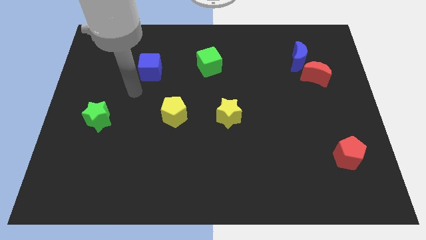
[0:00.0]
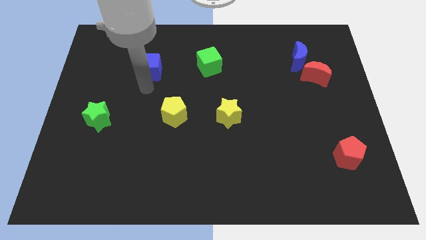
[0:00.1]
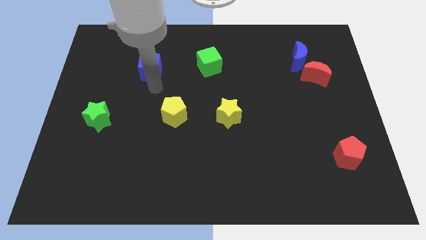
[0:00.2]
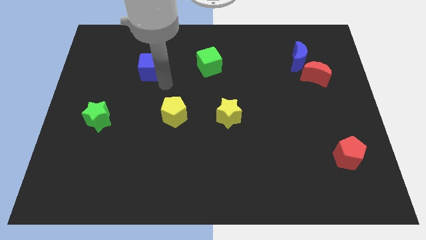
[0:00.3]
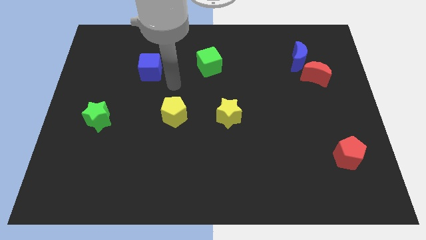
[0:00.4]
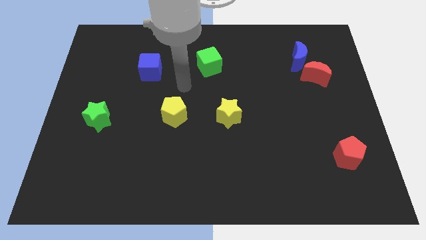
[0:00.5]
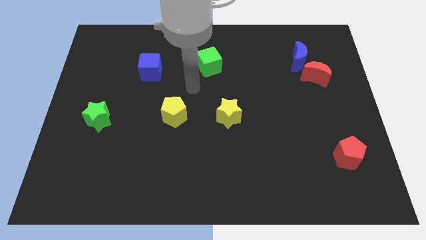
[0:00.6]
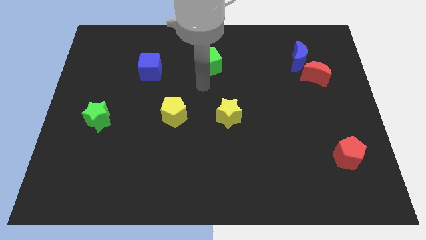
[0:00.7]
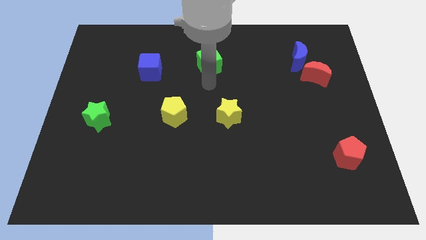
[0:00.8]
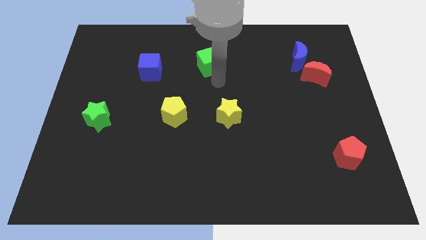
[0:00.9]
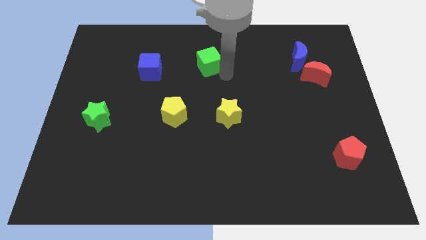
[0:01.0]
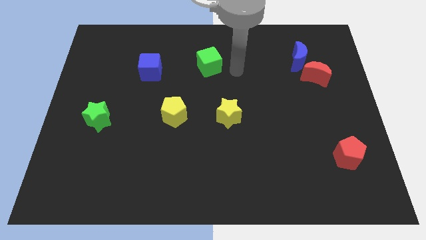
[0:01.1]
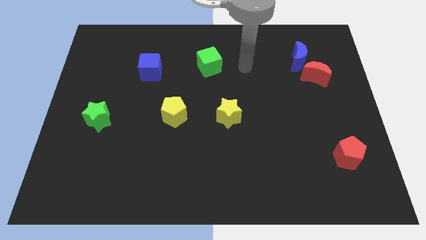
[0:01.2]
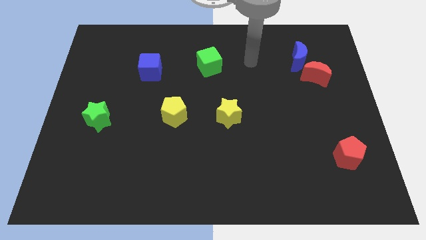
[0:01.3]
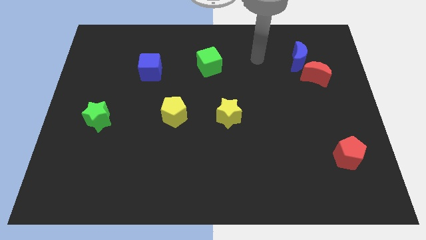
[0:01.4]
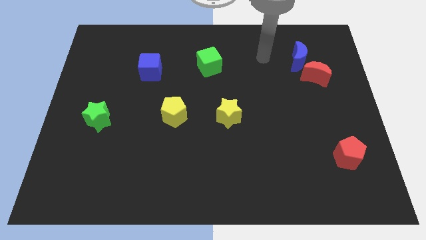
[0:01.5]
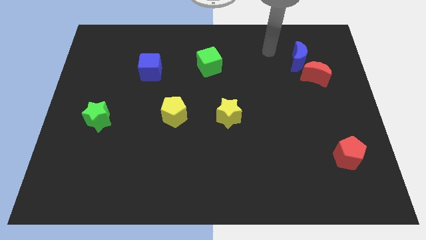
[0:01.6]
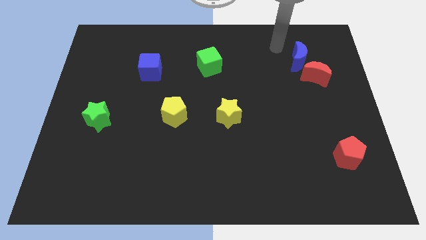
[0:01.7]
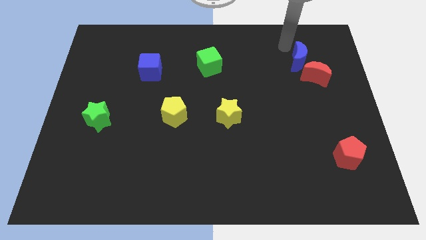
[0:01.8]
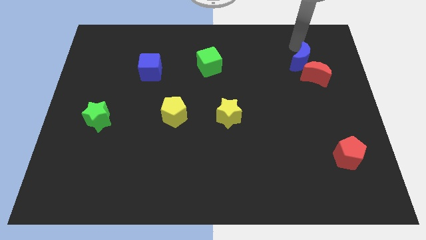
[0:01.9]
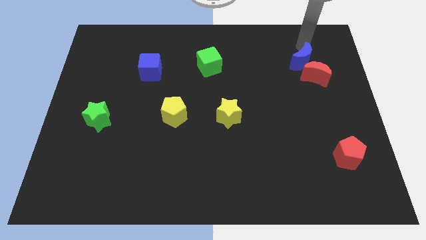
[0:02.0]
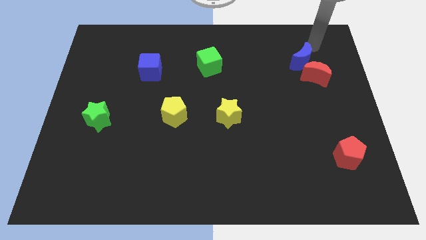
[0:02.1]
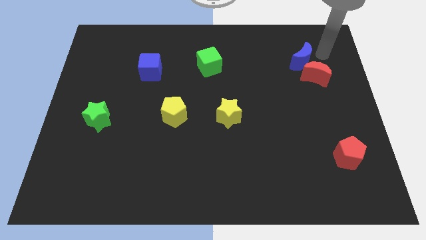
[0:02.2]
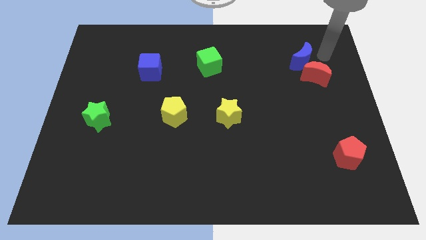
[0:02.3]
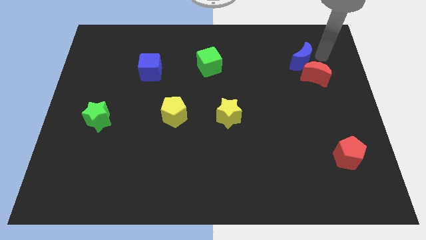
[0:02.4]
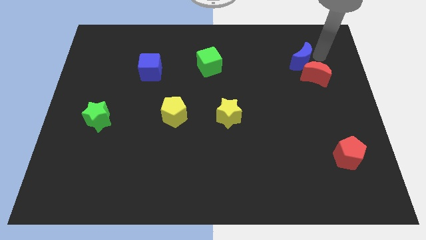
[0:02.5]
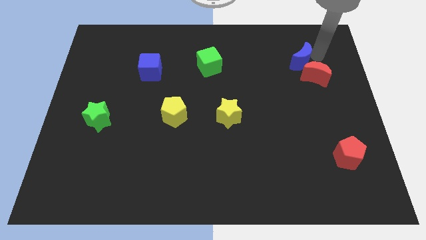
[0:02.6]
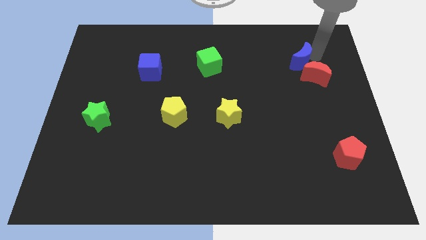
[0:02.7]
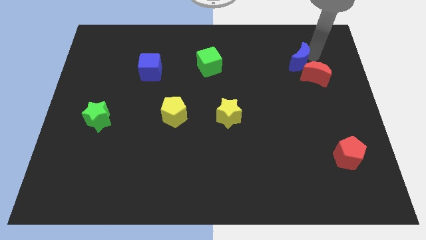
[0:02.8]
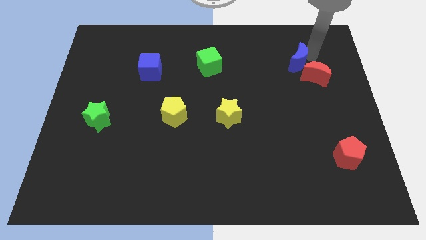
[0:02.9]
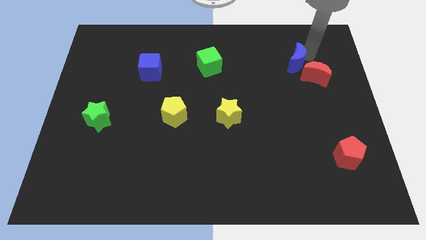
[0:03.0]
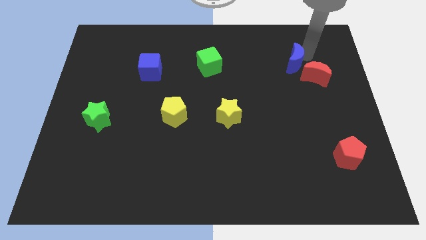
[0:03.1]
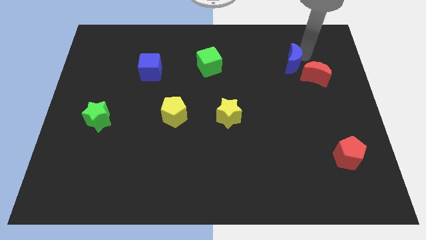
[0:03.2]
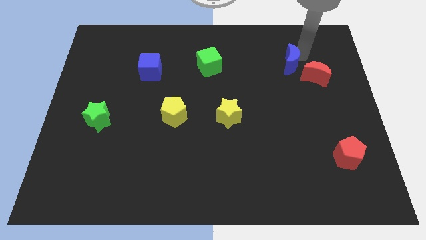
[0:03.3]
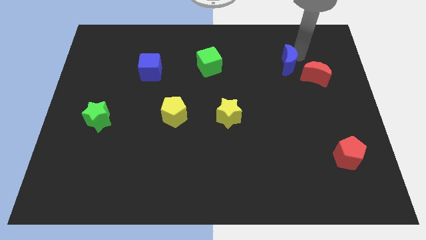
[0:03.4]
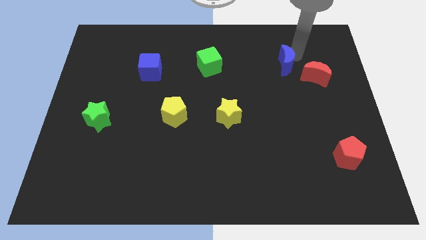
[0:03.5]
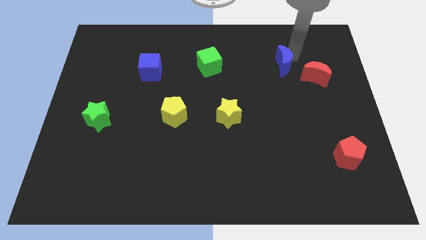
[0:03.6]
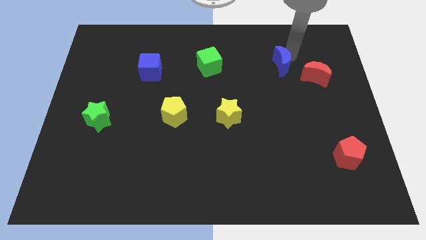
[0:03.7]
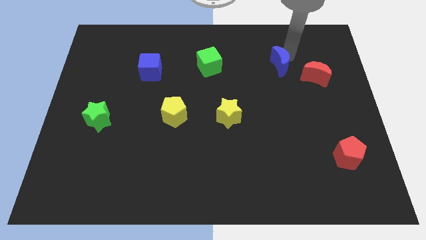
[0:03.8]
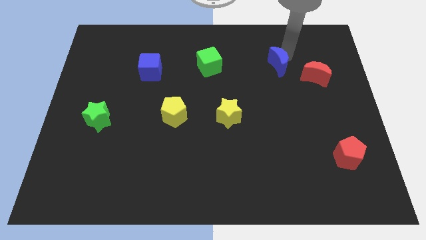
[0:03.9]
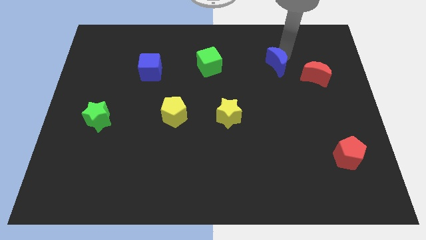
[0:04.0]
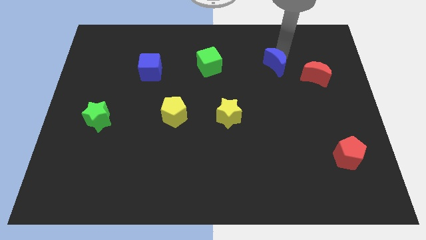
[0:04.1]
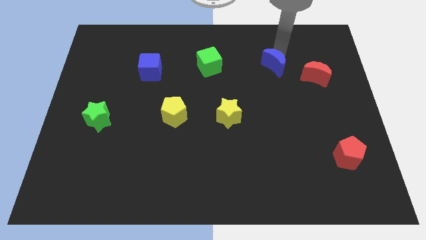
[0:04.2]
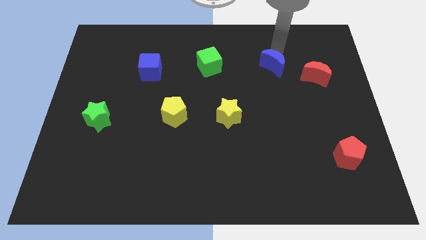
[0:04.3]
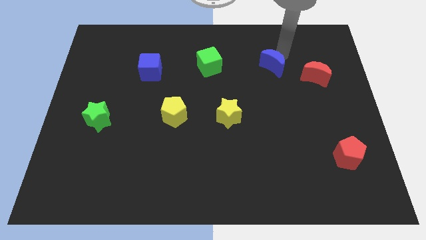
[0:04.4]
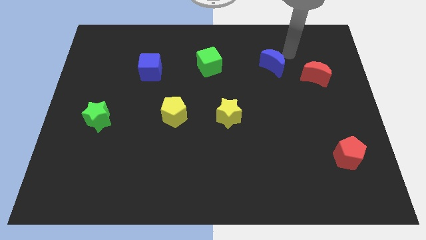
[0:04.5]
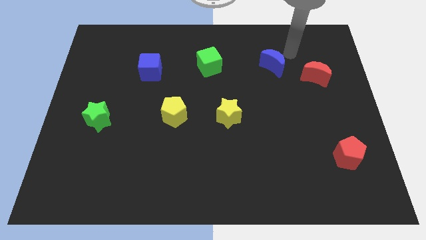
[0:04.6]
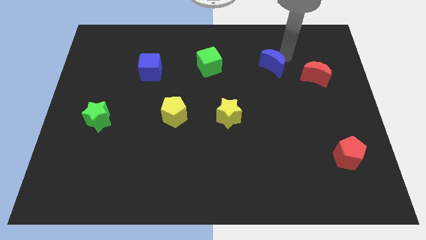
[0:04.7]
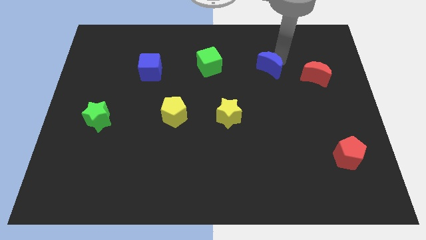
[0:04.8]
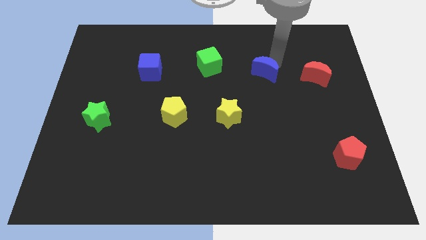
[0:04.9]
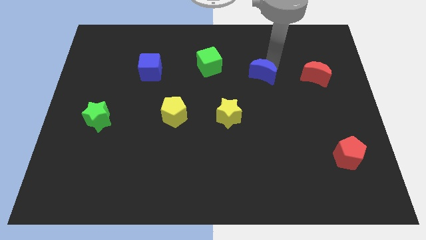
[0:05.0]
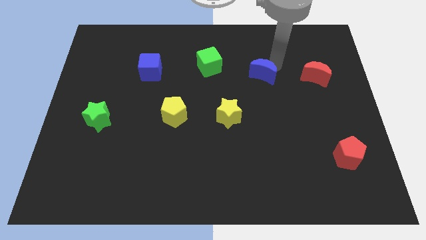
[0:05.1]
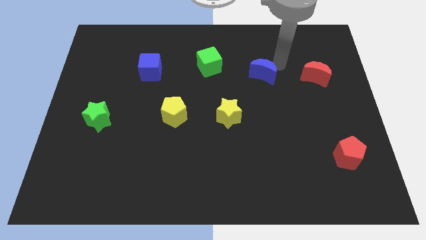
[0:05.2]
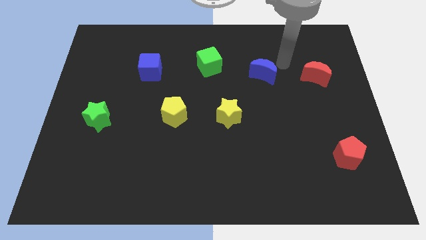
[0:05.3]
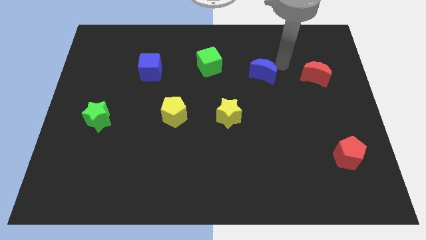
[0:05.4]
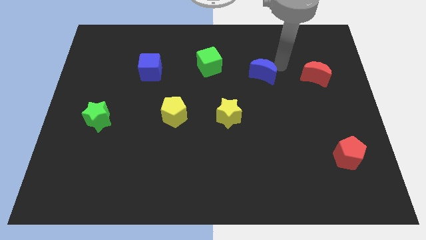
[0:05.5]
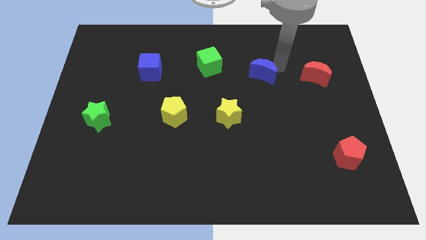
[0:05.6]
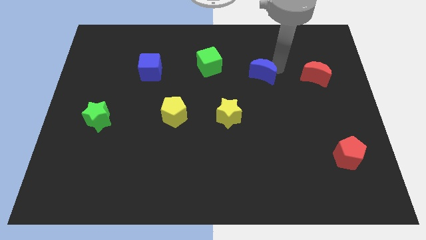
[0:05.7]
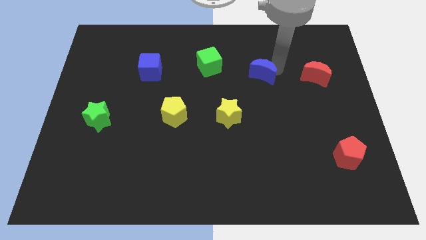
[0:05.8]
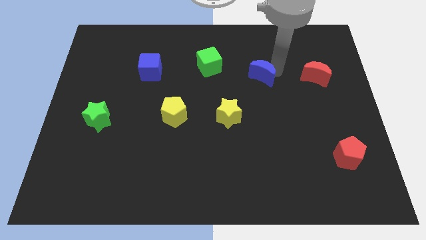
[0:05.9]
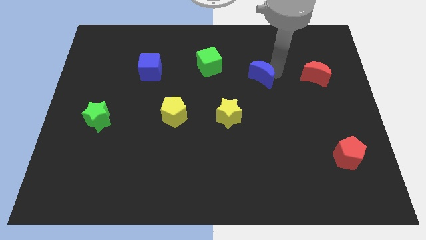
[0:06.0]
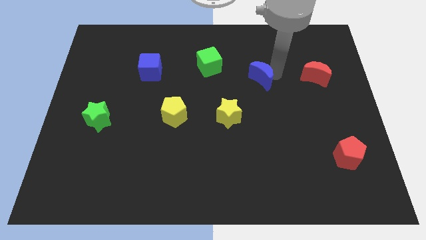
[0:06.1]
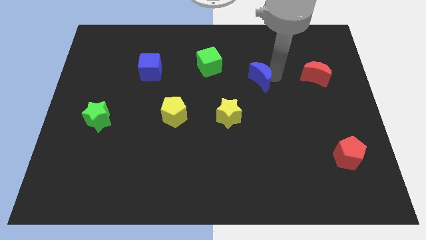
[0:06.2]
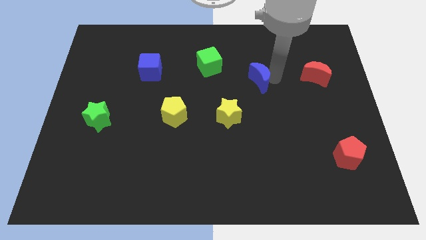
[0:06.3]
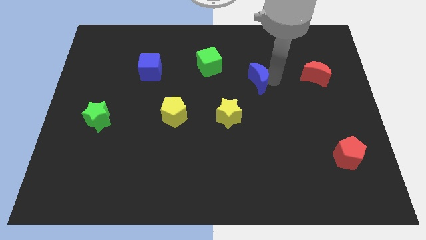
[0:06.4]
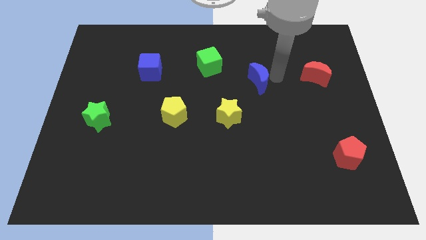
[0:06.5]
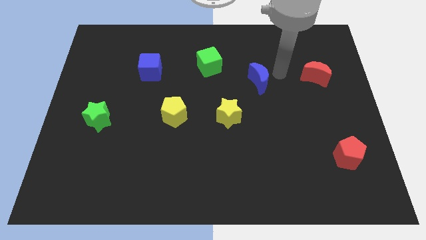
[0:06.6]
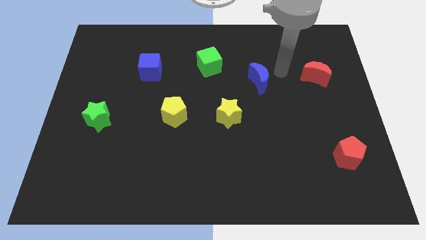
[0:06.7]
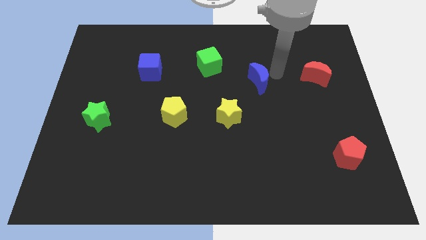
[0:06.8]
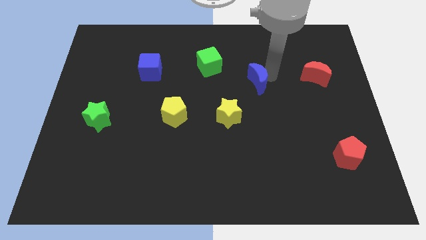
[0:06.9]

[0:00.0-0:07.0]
slide the blue moon to the middle
